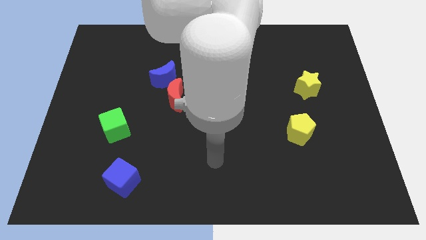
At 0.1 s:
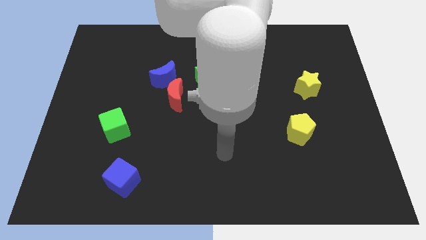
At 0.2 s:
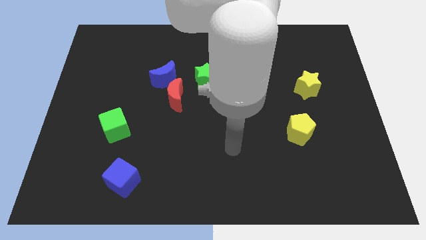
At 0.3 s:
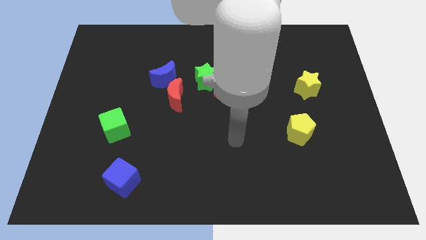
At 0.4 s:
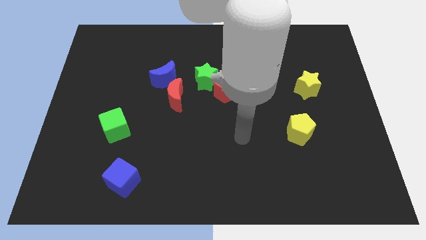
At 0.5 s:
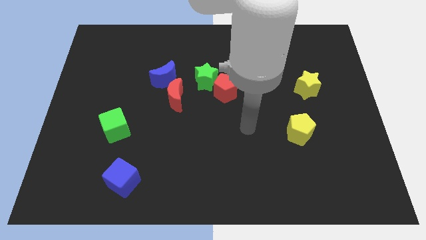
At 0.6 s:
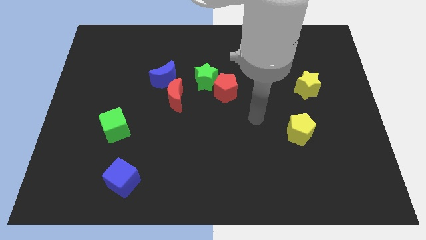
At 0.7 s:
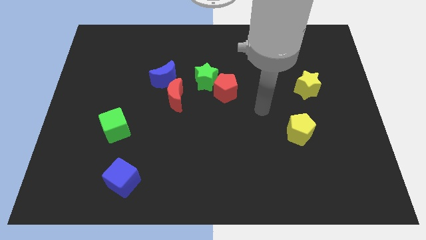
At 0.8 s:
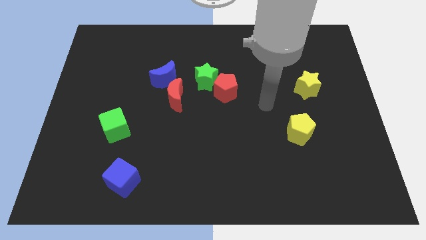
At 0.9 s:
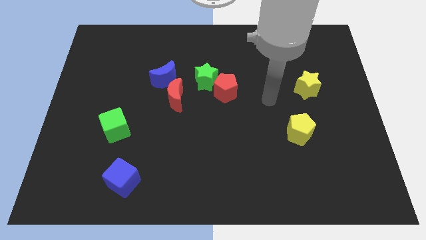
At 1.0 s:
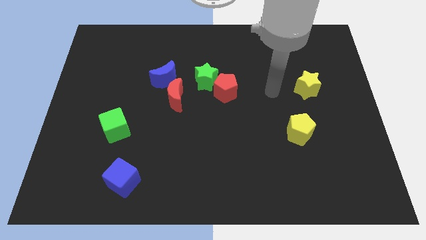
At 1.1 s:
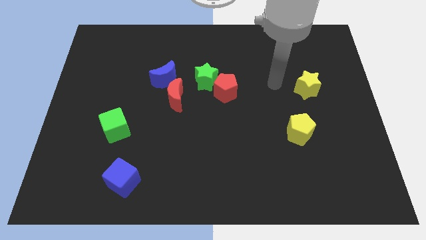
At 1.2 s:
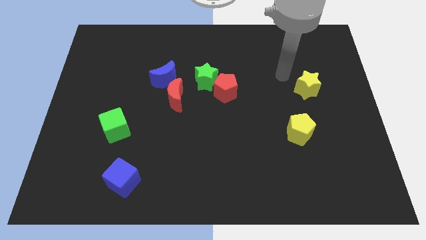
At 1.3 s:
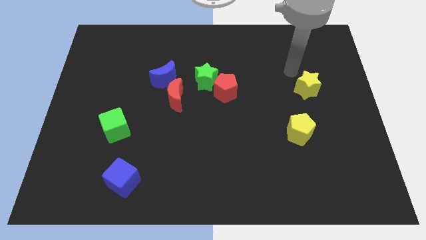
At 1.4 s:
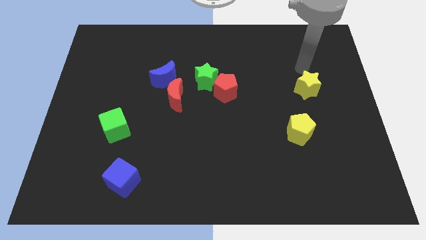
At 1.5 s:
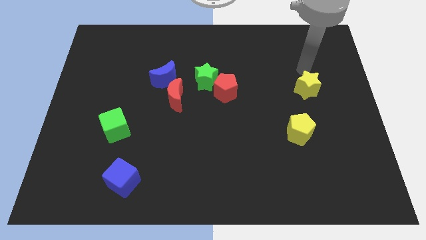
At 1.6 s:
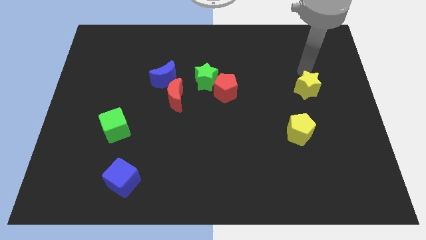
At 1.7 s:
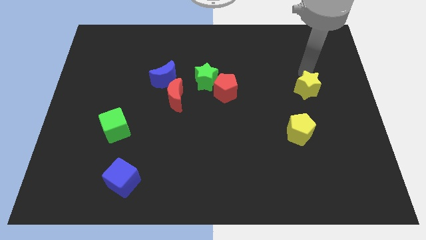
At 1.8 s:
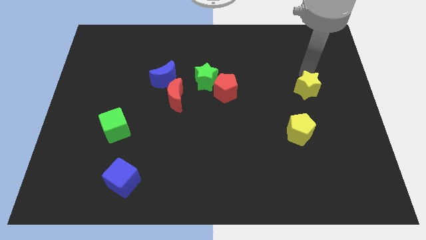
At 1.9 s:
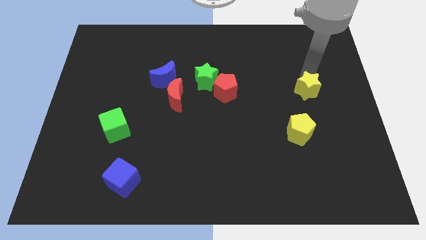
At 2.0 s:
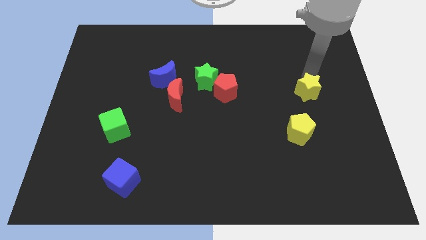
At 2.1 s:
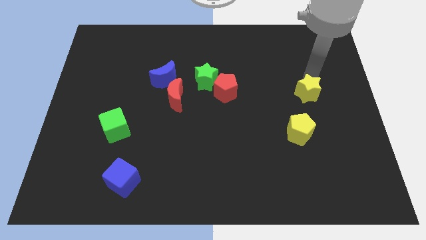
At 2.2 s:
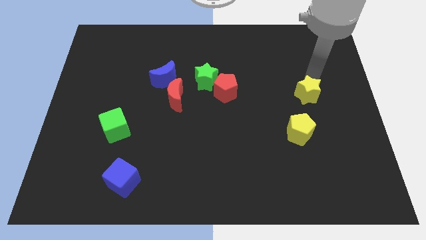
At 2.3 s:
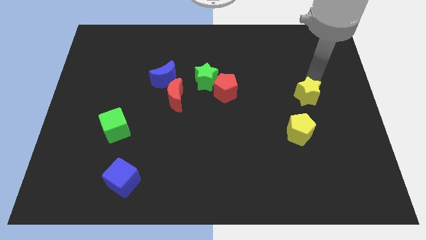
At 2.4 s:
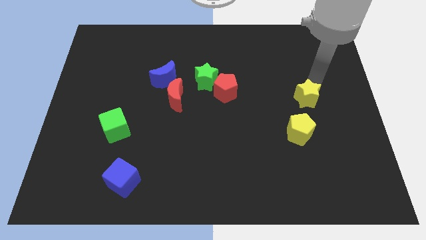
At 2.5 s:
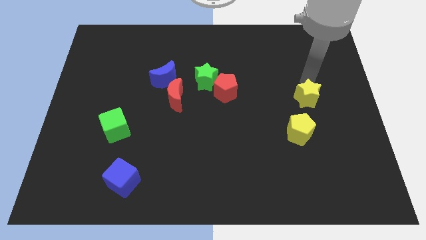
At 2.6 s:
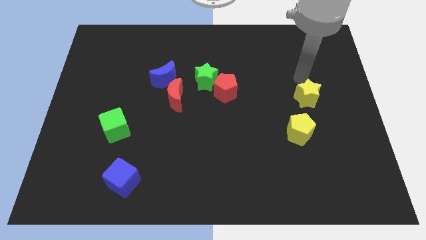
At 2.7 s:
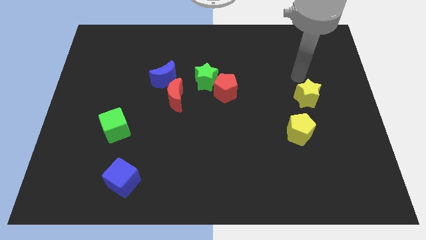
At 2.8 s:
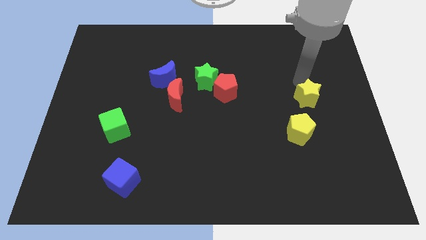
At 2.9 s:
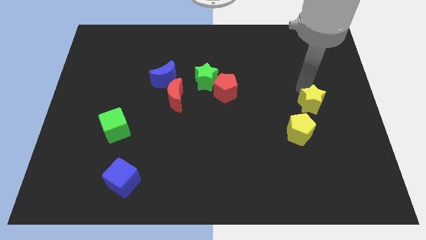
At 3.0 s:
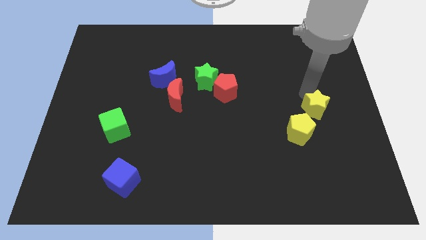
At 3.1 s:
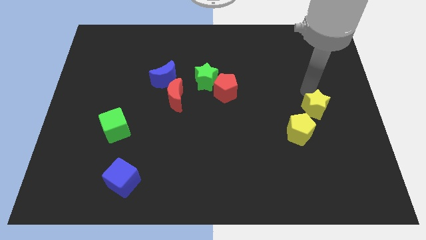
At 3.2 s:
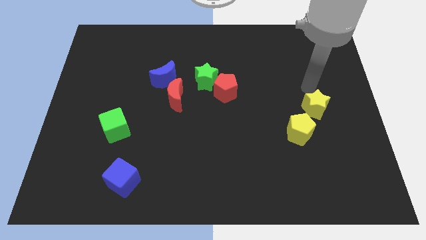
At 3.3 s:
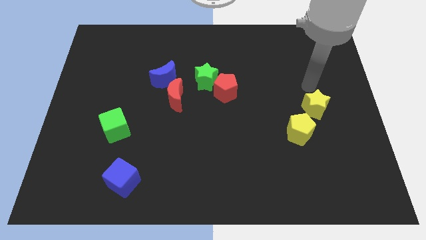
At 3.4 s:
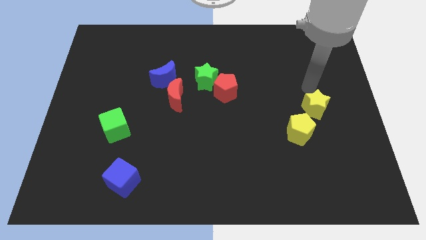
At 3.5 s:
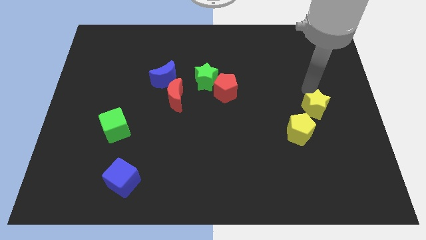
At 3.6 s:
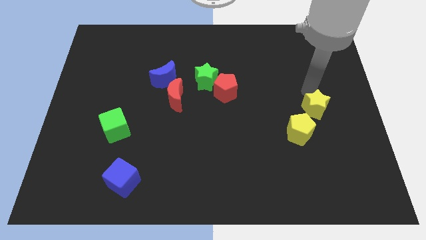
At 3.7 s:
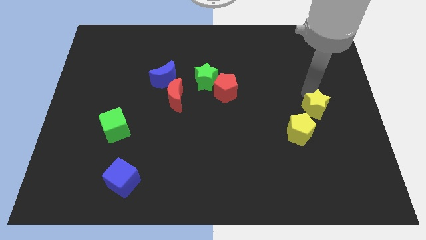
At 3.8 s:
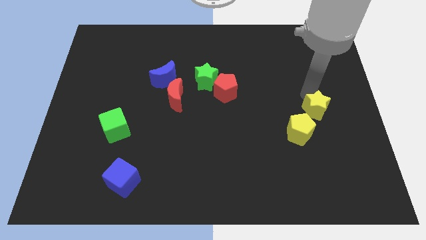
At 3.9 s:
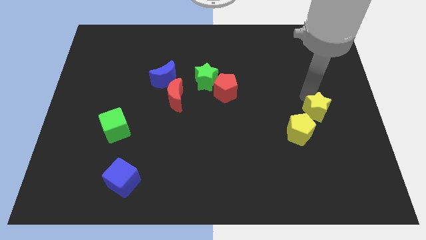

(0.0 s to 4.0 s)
push the yellow star somewhat down

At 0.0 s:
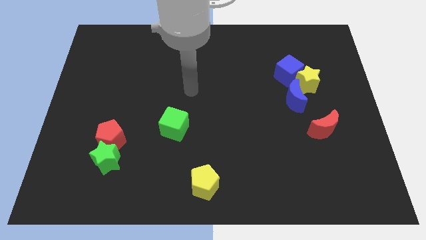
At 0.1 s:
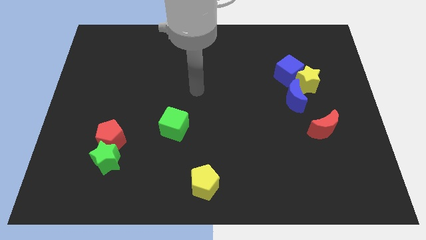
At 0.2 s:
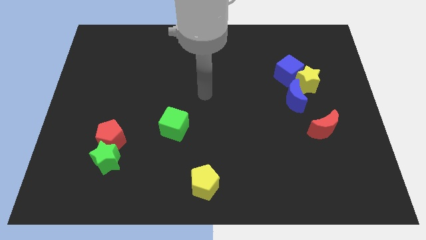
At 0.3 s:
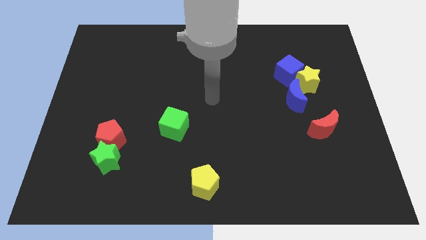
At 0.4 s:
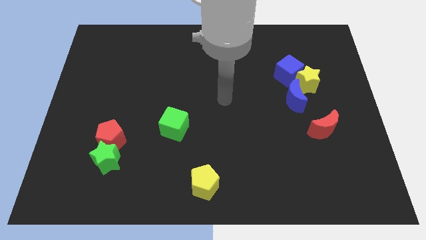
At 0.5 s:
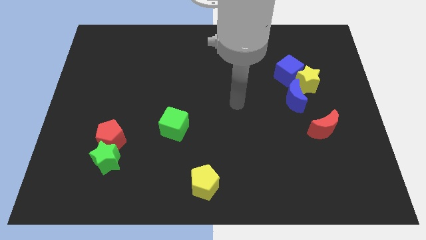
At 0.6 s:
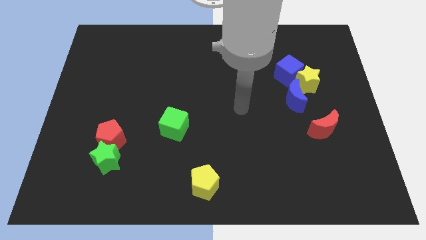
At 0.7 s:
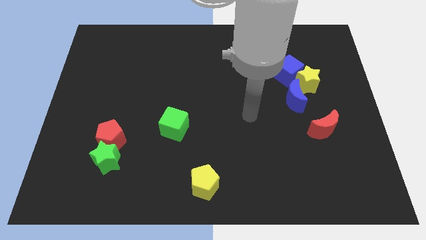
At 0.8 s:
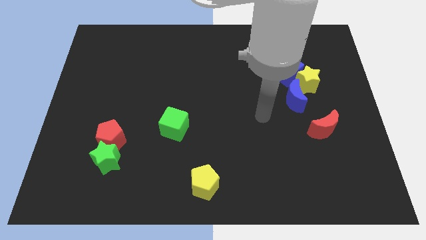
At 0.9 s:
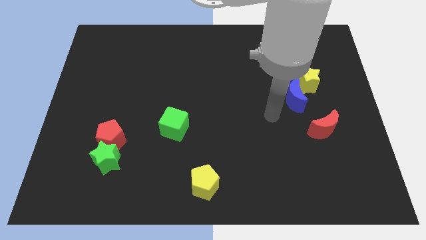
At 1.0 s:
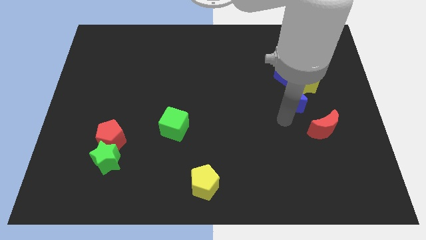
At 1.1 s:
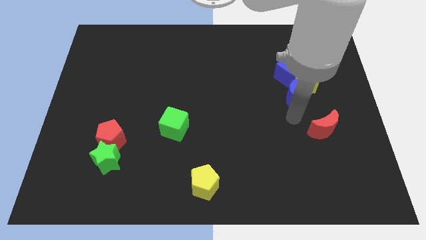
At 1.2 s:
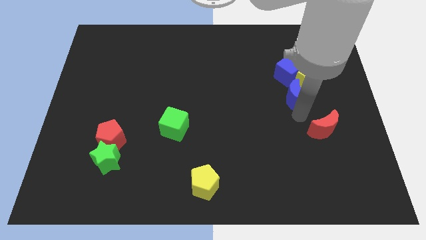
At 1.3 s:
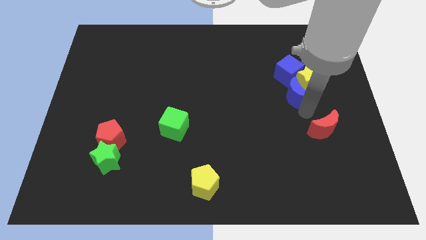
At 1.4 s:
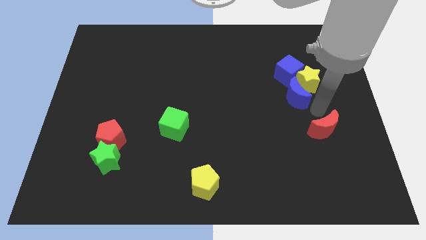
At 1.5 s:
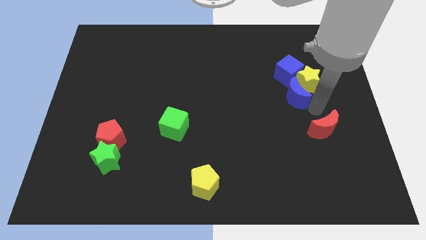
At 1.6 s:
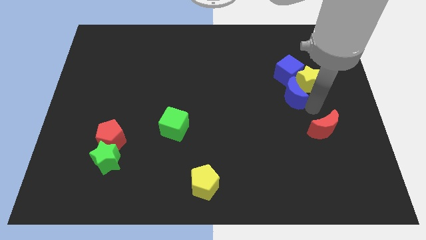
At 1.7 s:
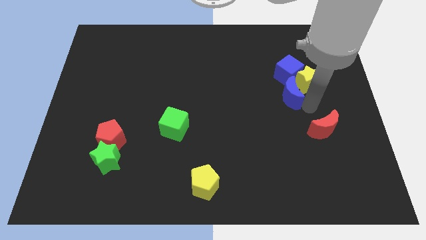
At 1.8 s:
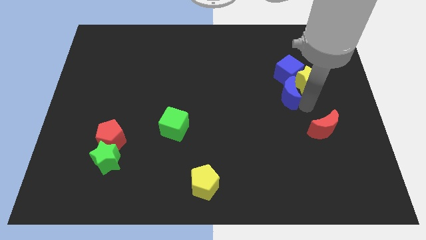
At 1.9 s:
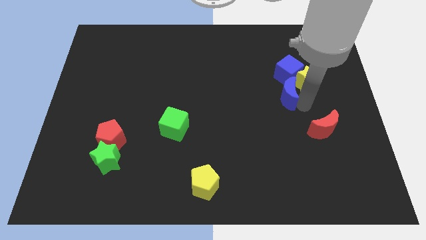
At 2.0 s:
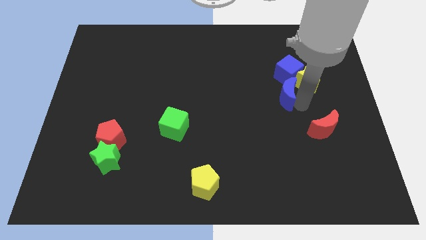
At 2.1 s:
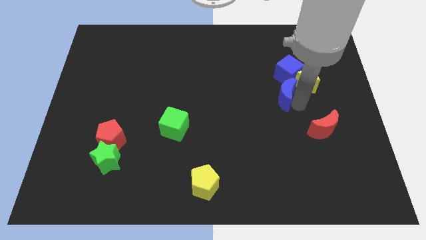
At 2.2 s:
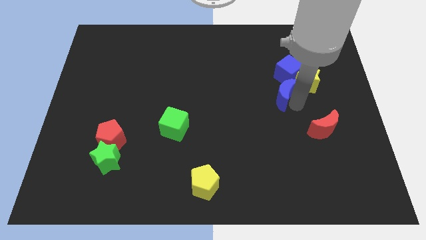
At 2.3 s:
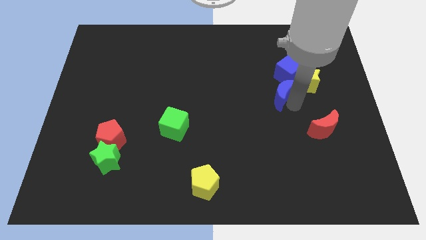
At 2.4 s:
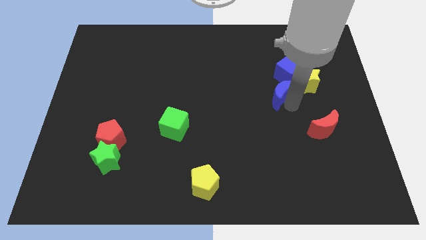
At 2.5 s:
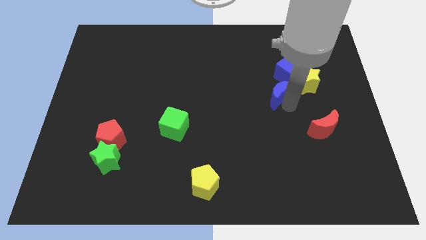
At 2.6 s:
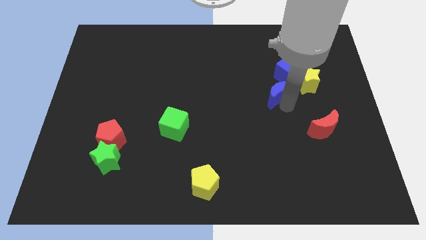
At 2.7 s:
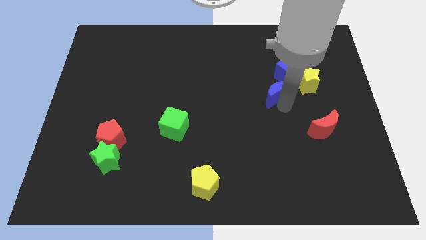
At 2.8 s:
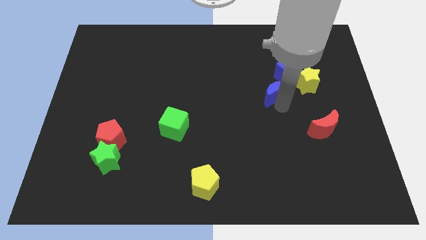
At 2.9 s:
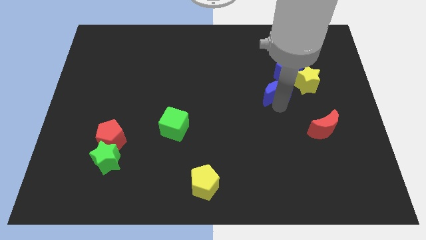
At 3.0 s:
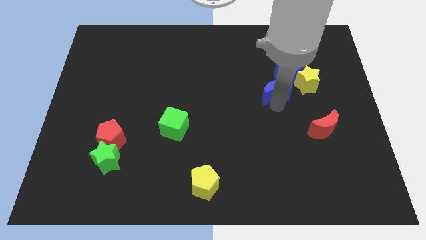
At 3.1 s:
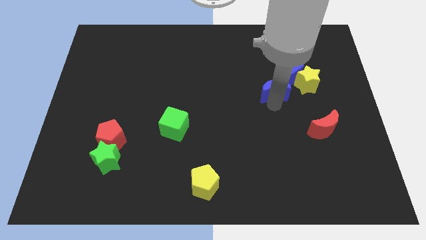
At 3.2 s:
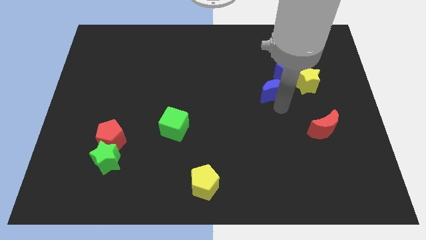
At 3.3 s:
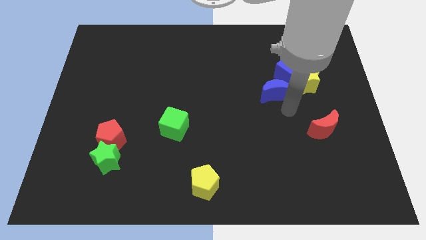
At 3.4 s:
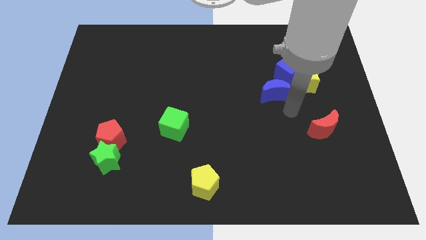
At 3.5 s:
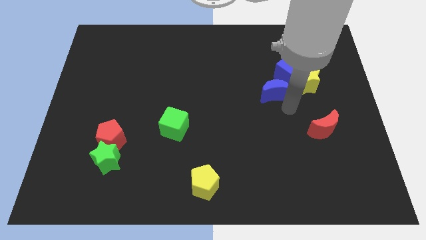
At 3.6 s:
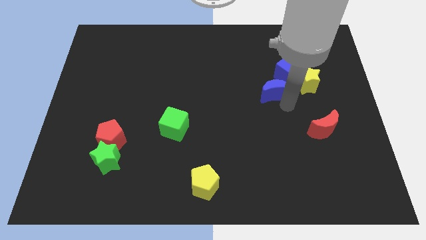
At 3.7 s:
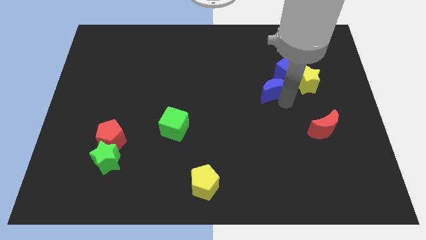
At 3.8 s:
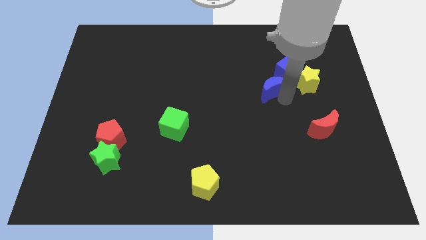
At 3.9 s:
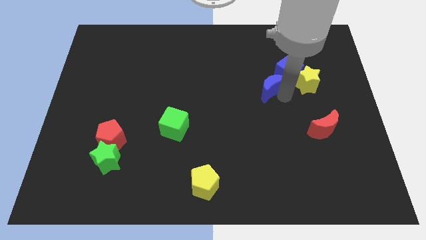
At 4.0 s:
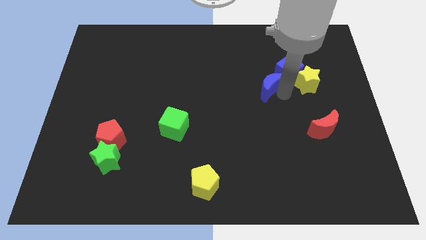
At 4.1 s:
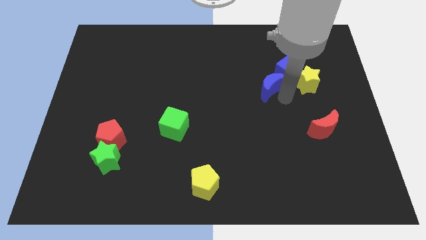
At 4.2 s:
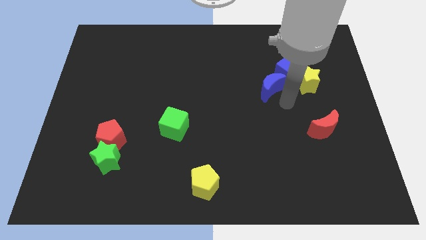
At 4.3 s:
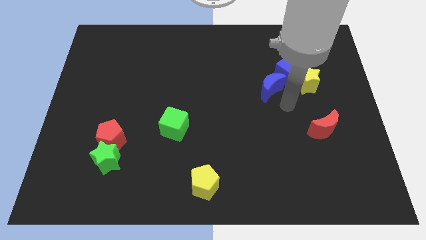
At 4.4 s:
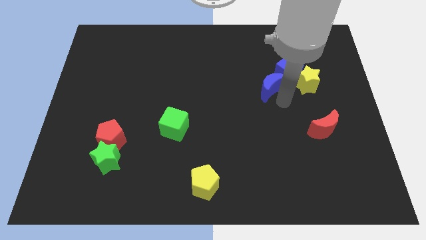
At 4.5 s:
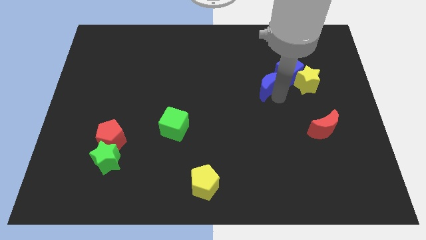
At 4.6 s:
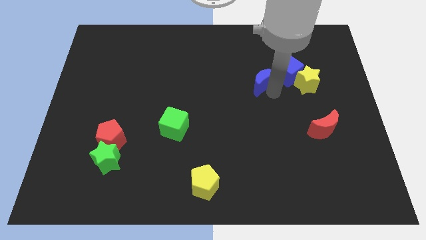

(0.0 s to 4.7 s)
push the blue moon somewhat up and to the left
